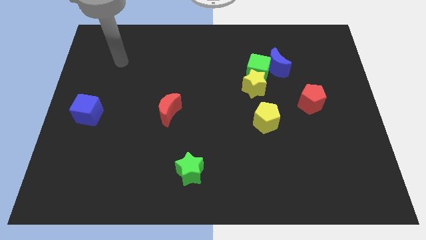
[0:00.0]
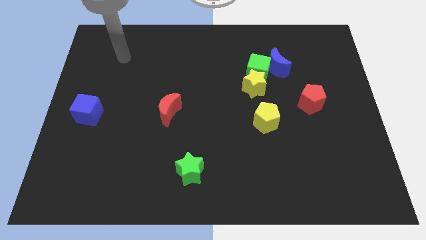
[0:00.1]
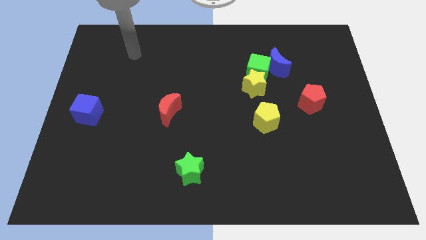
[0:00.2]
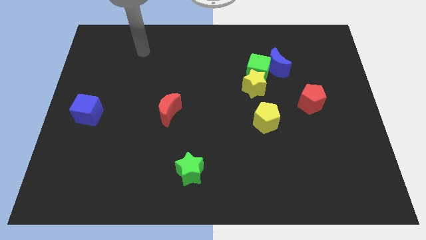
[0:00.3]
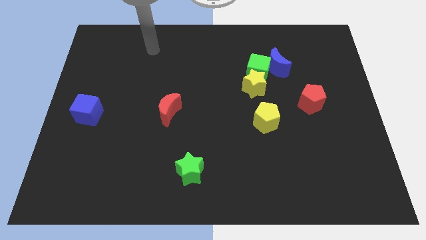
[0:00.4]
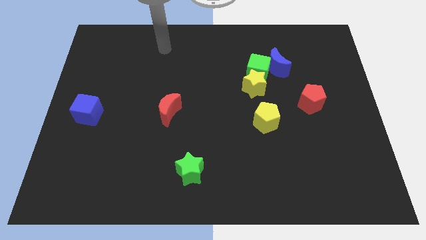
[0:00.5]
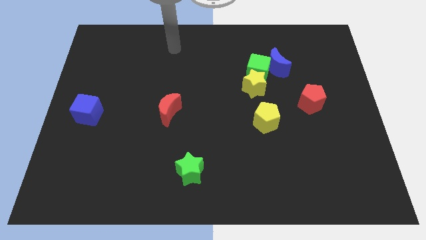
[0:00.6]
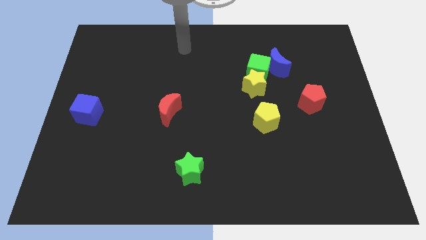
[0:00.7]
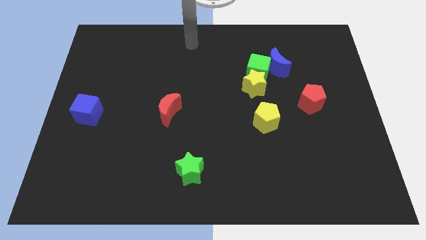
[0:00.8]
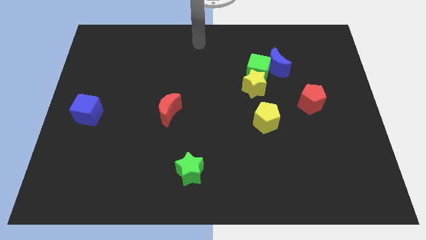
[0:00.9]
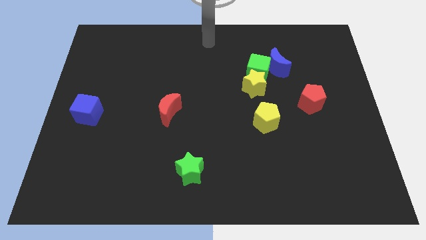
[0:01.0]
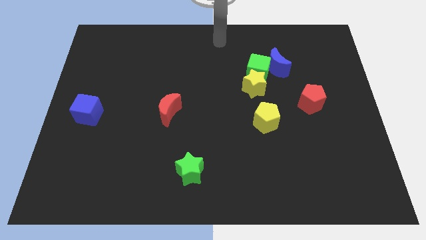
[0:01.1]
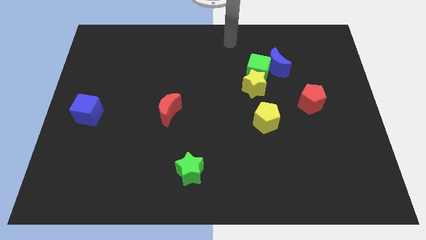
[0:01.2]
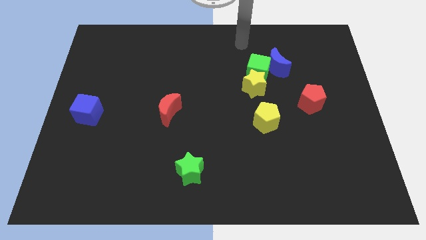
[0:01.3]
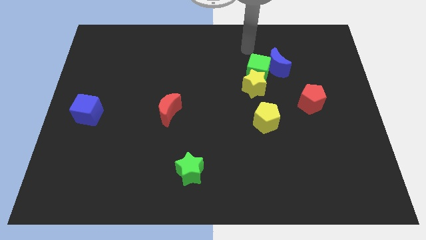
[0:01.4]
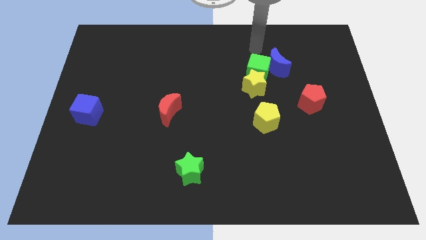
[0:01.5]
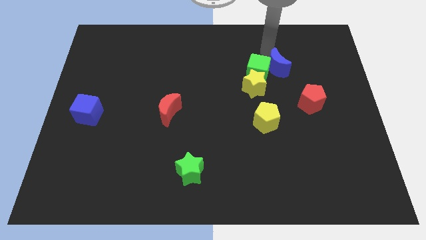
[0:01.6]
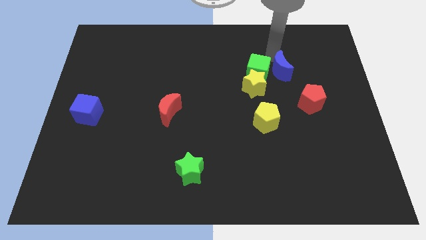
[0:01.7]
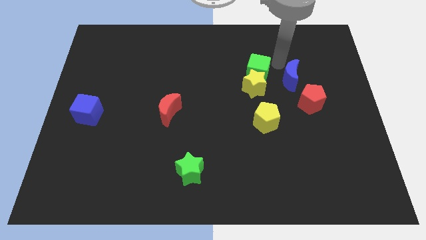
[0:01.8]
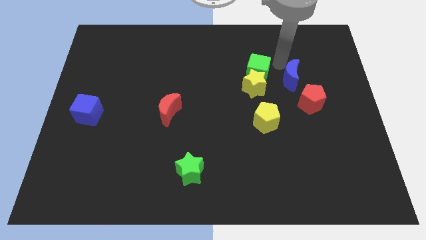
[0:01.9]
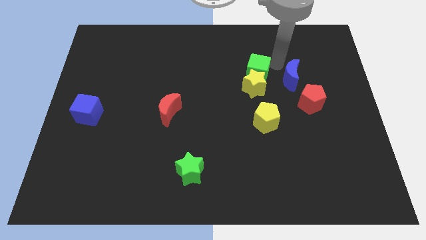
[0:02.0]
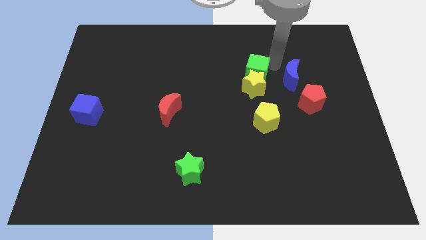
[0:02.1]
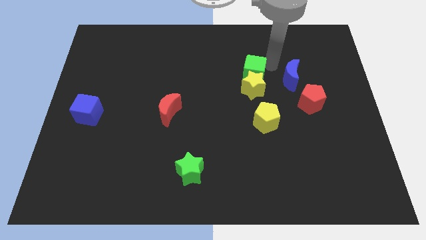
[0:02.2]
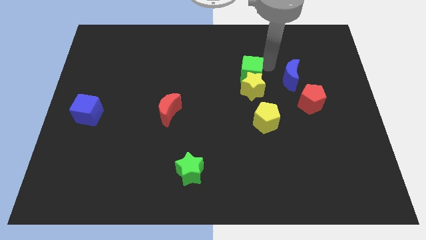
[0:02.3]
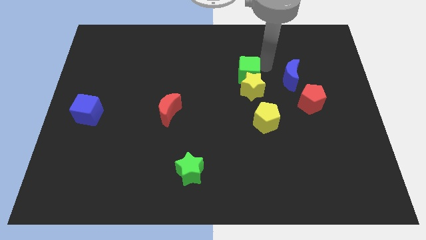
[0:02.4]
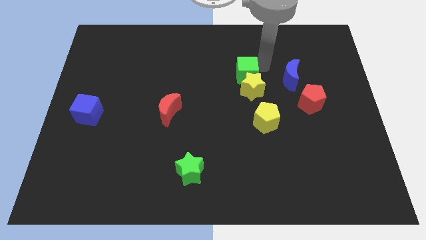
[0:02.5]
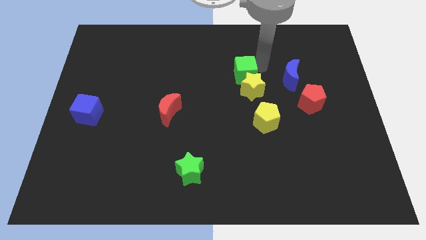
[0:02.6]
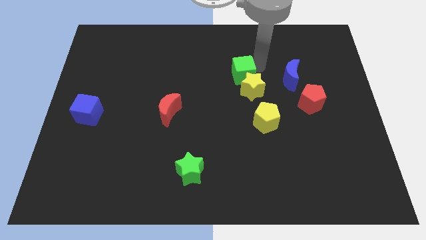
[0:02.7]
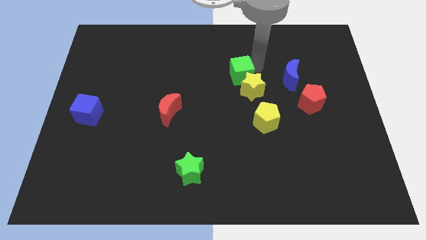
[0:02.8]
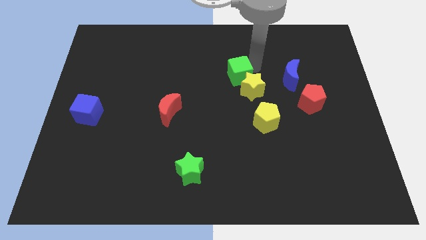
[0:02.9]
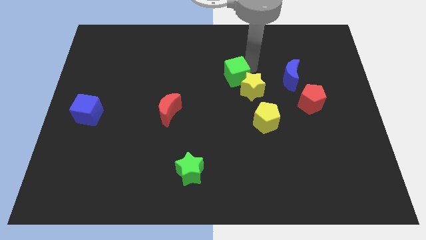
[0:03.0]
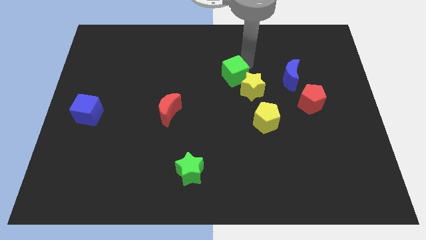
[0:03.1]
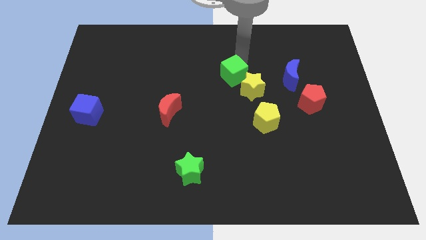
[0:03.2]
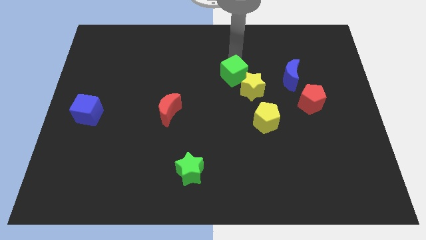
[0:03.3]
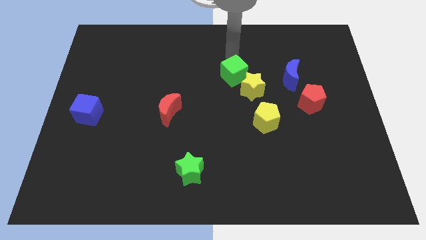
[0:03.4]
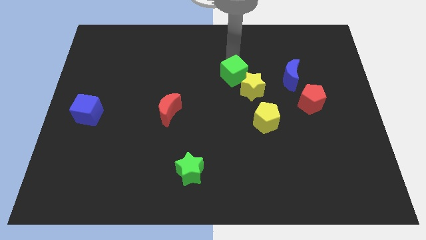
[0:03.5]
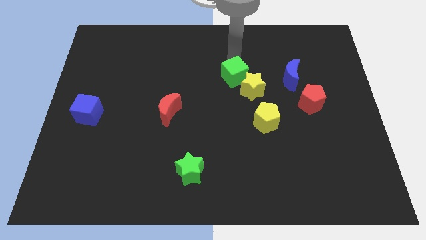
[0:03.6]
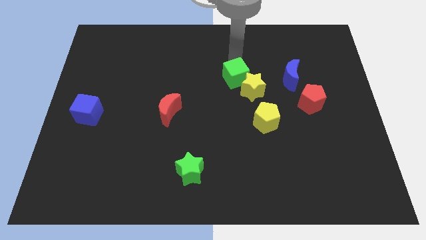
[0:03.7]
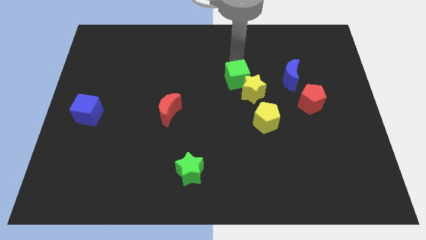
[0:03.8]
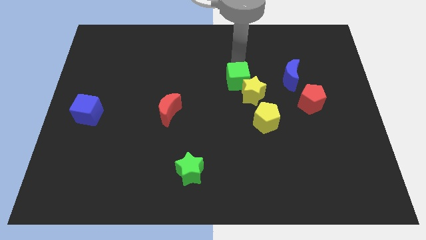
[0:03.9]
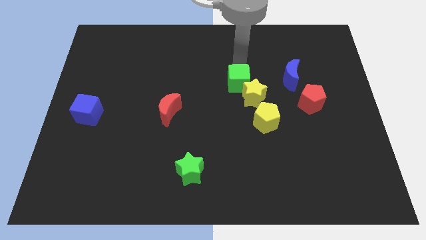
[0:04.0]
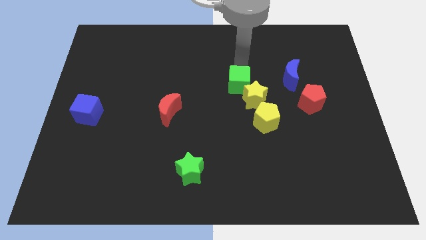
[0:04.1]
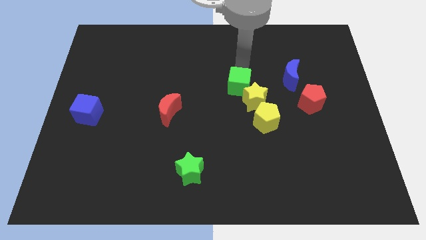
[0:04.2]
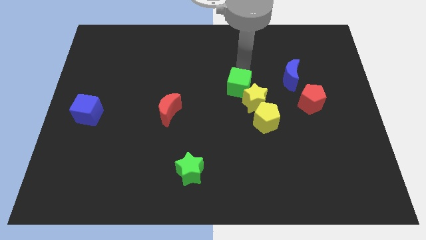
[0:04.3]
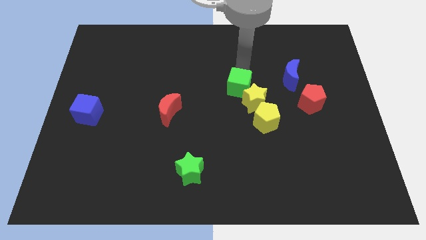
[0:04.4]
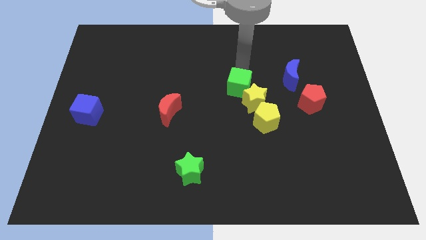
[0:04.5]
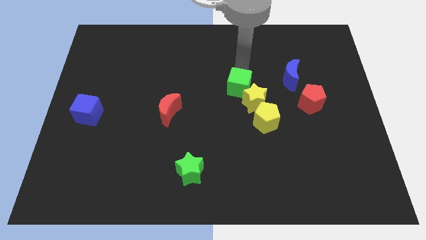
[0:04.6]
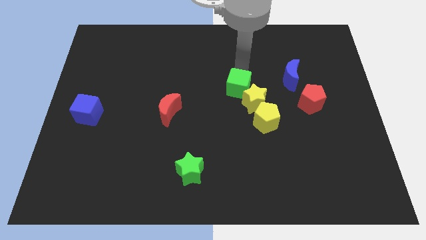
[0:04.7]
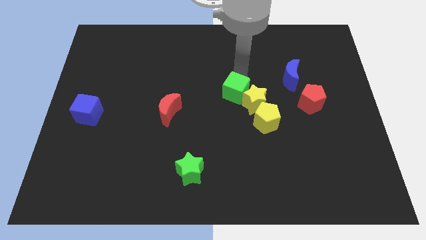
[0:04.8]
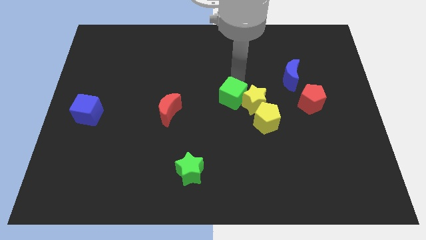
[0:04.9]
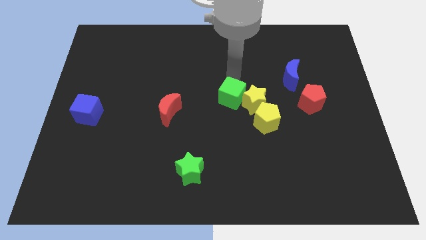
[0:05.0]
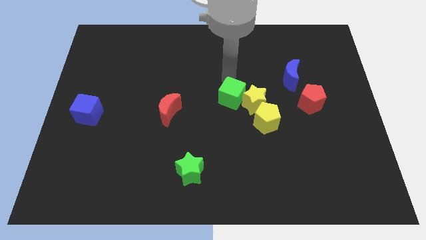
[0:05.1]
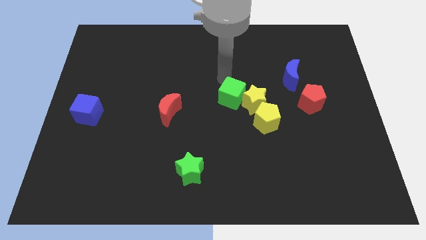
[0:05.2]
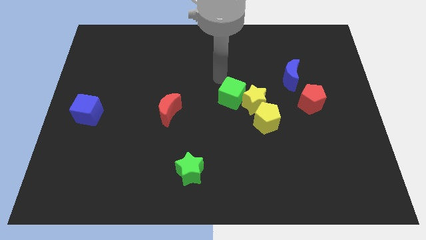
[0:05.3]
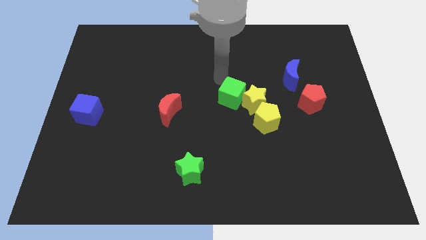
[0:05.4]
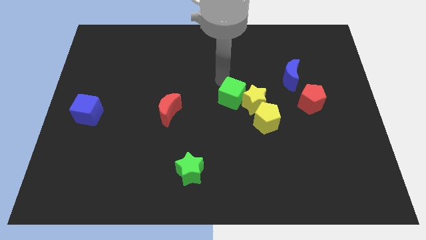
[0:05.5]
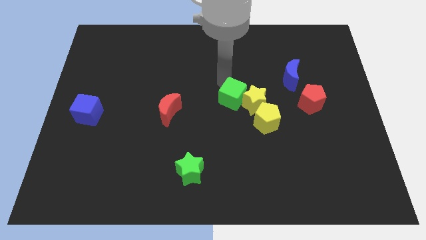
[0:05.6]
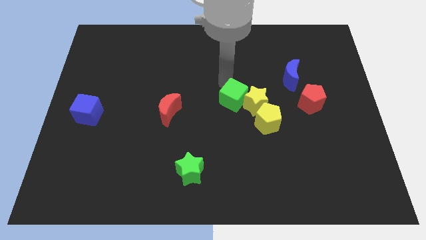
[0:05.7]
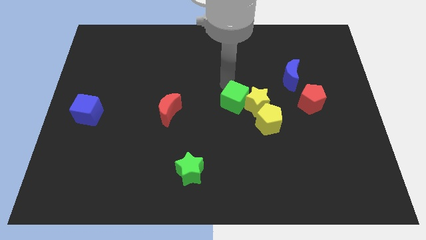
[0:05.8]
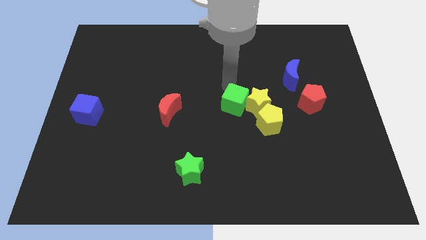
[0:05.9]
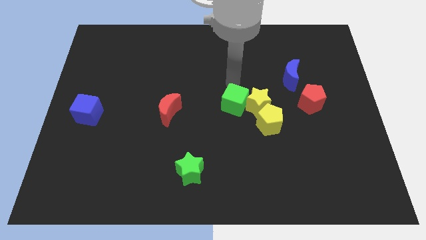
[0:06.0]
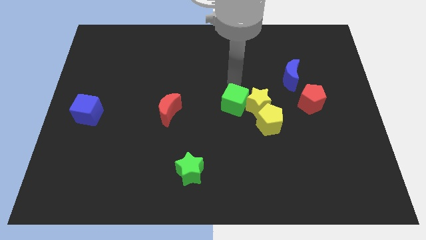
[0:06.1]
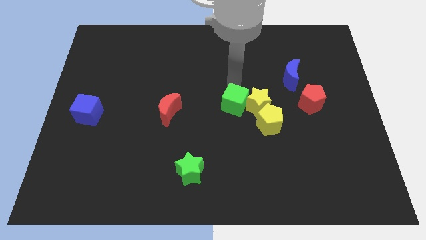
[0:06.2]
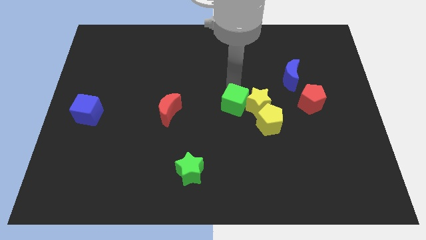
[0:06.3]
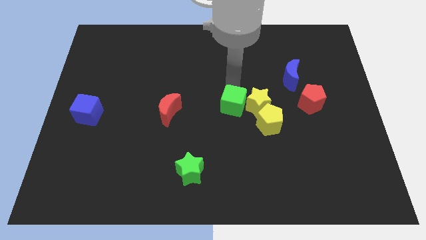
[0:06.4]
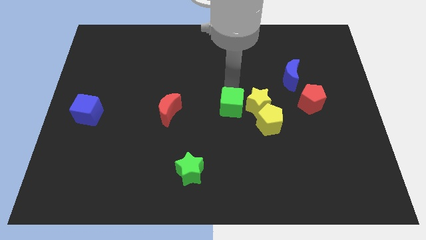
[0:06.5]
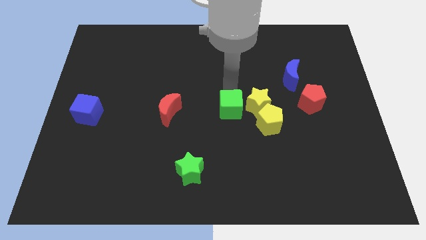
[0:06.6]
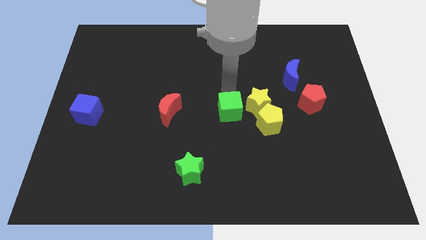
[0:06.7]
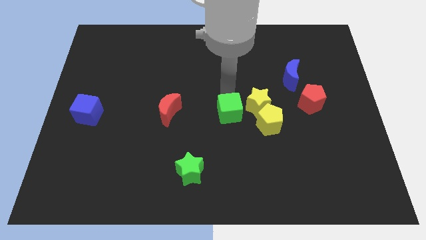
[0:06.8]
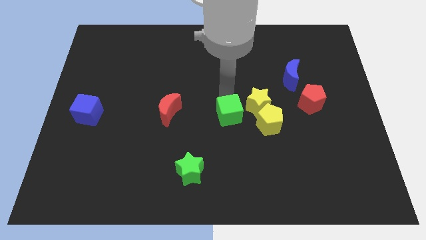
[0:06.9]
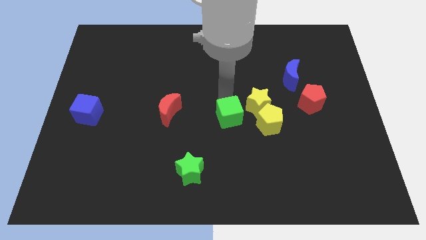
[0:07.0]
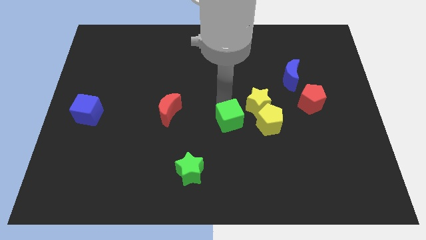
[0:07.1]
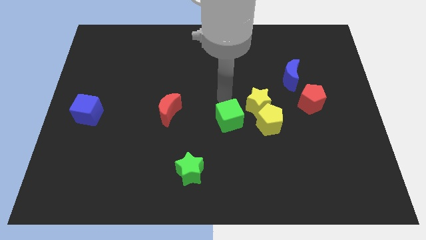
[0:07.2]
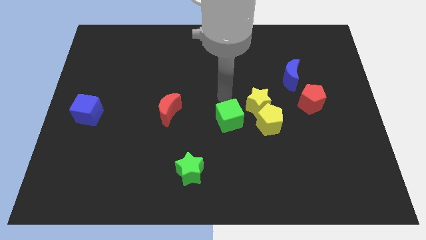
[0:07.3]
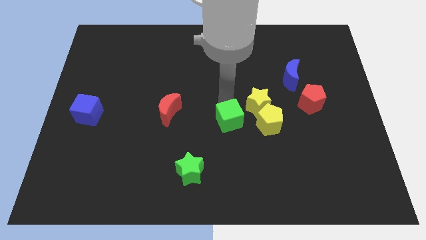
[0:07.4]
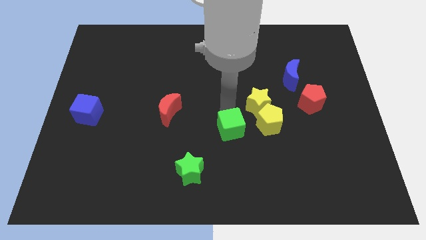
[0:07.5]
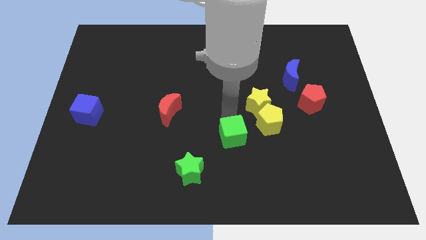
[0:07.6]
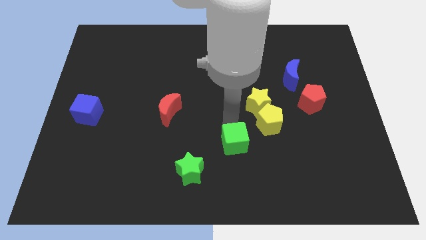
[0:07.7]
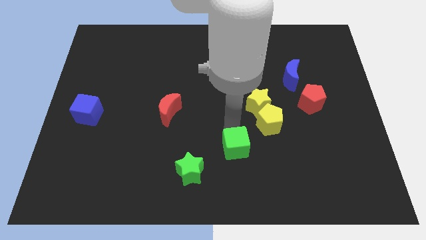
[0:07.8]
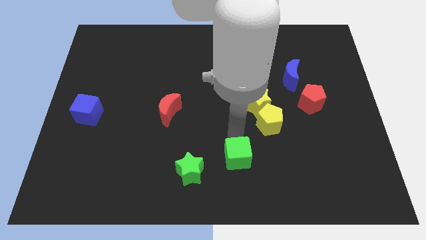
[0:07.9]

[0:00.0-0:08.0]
push the green cube to the bottom side
